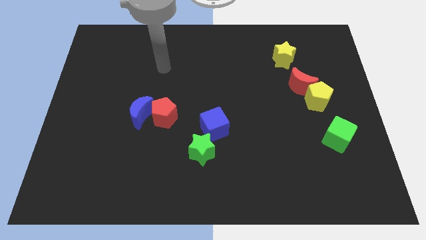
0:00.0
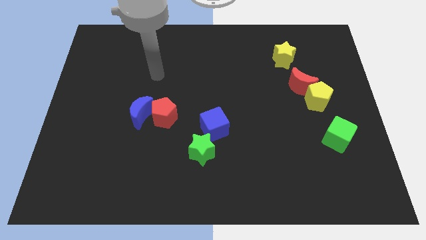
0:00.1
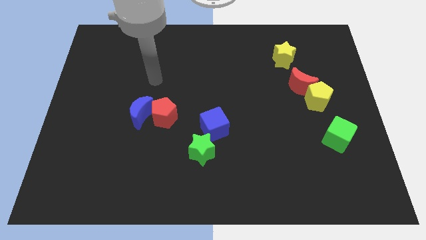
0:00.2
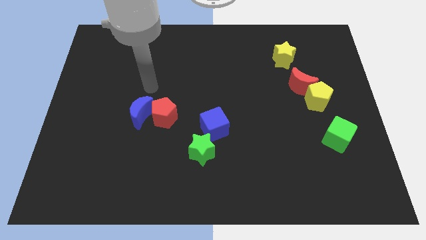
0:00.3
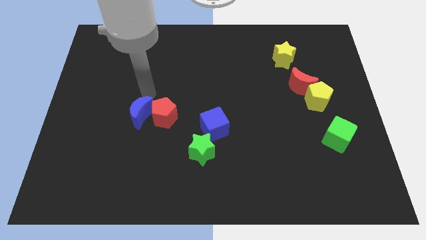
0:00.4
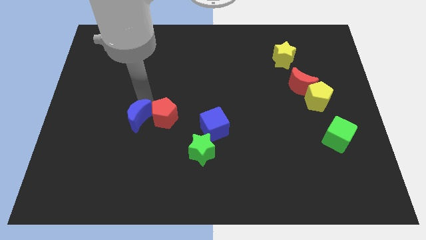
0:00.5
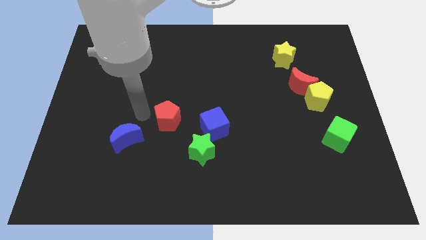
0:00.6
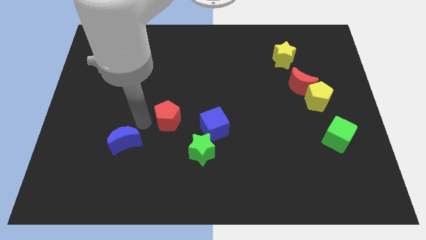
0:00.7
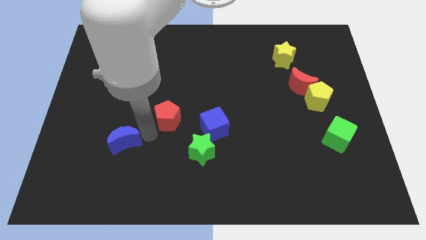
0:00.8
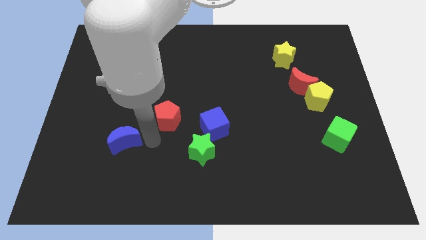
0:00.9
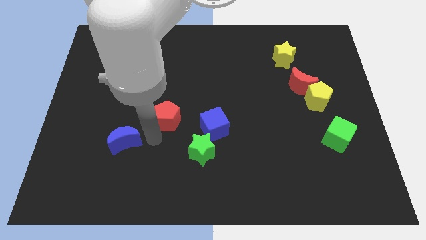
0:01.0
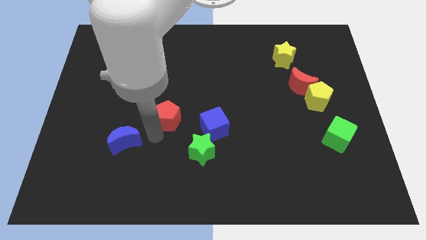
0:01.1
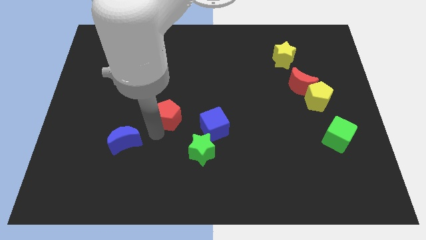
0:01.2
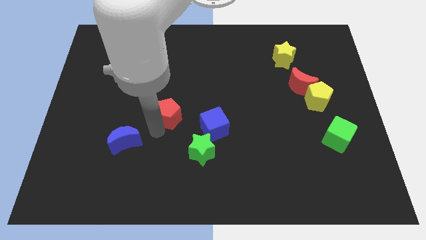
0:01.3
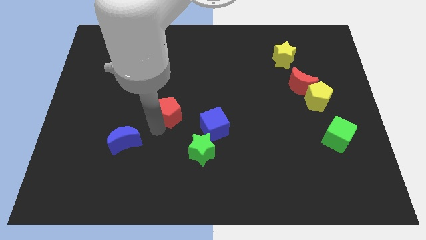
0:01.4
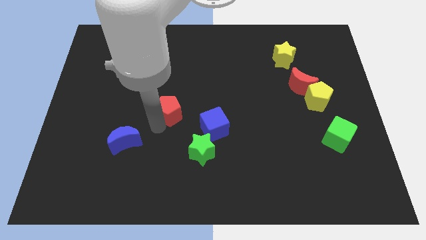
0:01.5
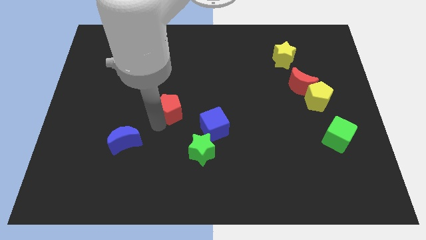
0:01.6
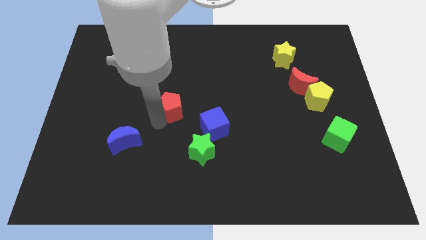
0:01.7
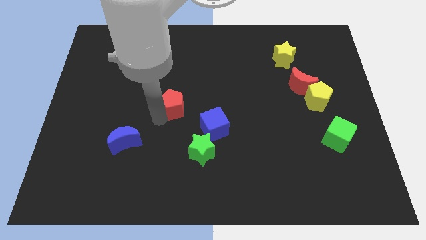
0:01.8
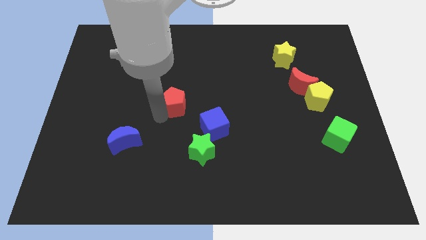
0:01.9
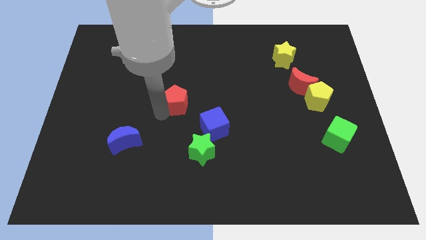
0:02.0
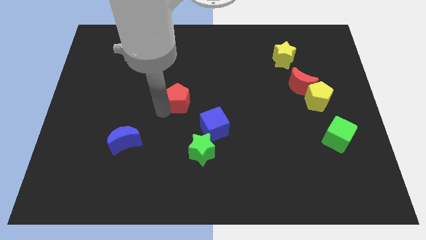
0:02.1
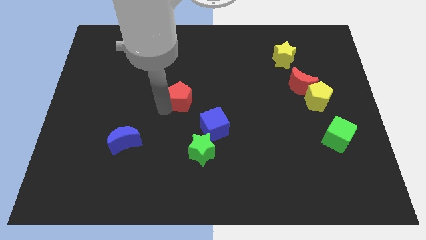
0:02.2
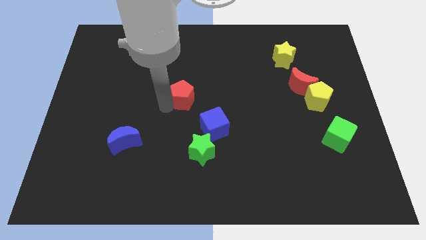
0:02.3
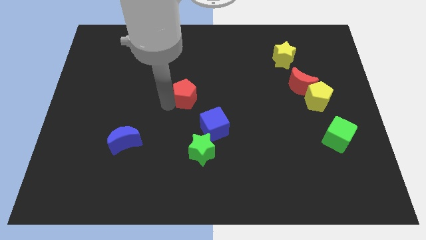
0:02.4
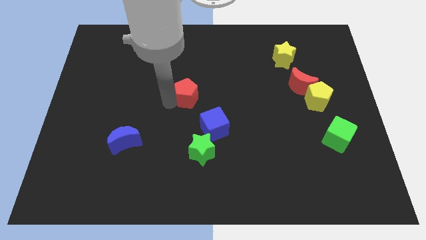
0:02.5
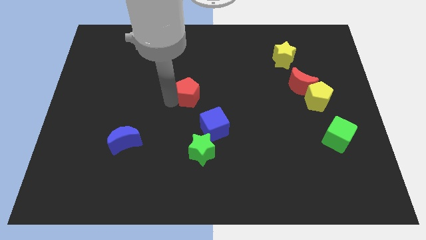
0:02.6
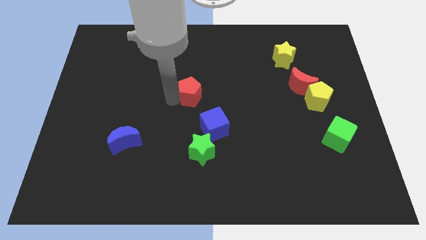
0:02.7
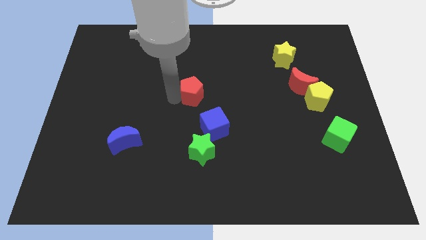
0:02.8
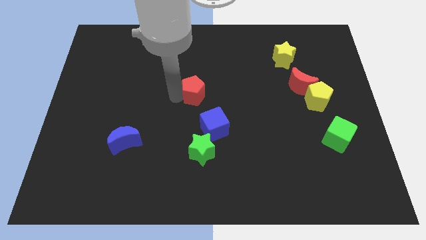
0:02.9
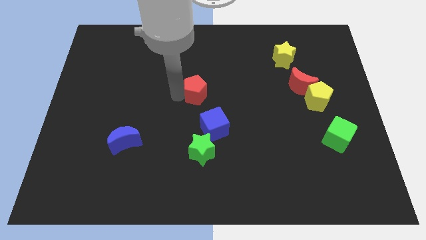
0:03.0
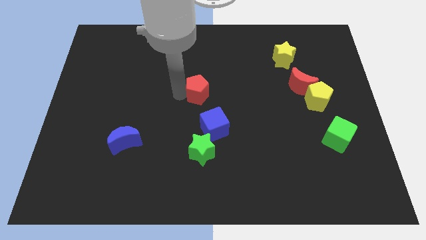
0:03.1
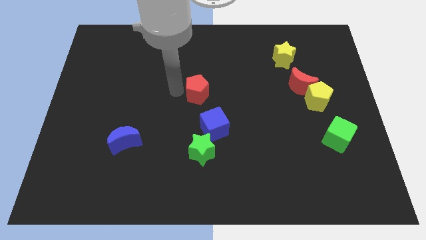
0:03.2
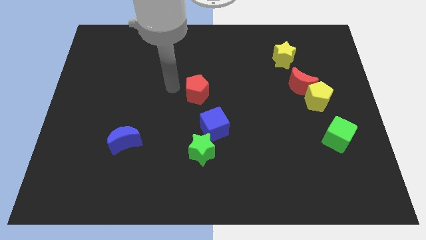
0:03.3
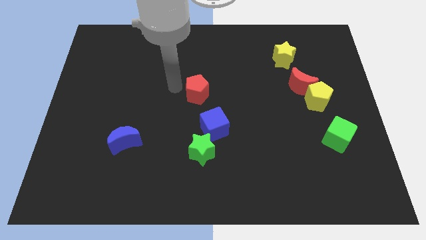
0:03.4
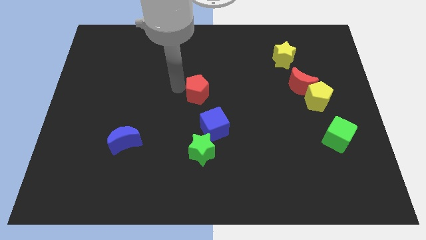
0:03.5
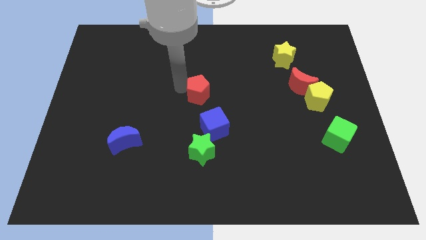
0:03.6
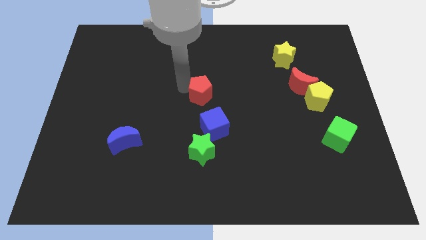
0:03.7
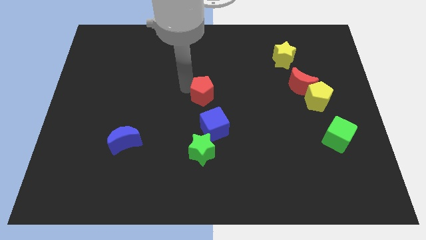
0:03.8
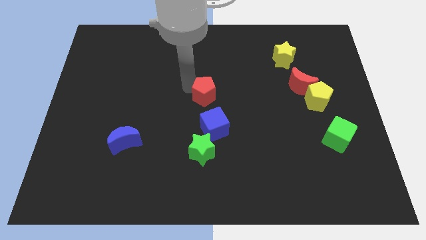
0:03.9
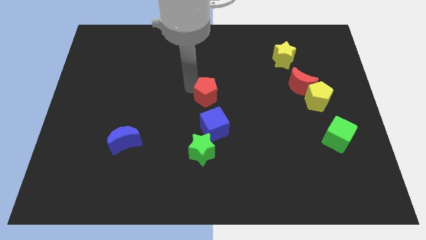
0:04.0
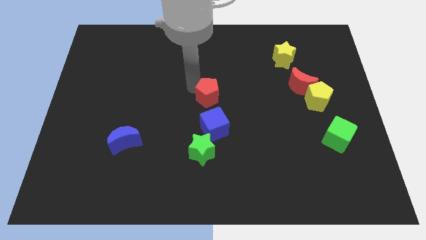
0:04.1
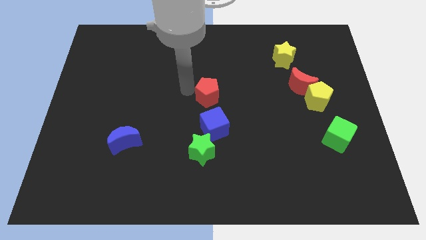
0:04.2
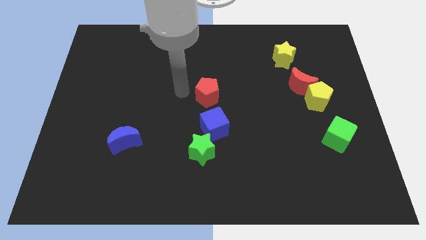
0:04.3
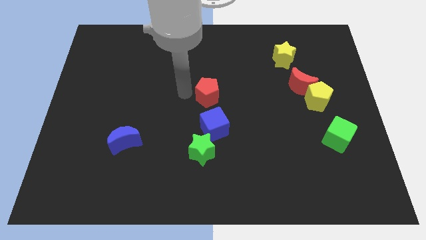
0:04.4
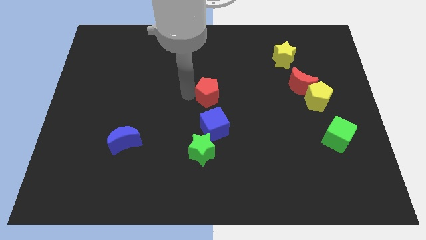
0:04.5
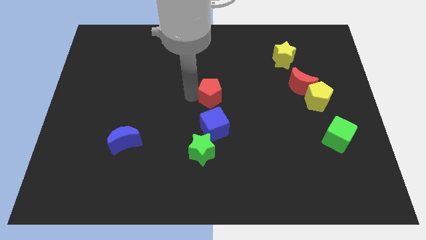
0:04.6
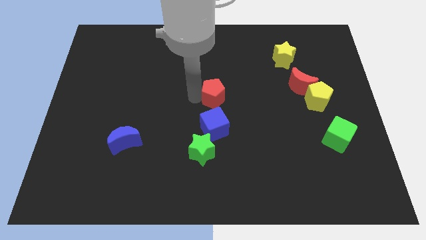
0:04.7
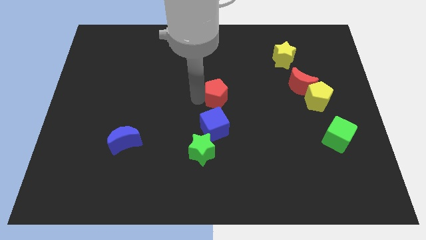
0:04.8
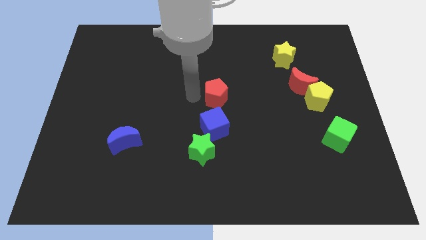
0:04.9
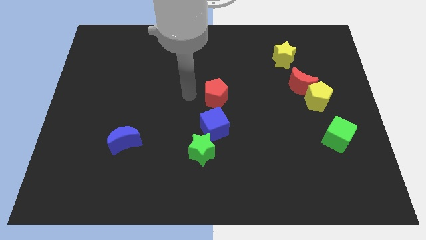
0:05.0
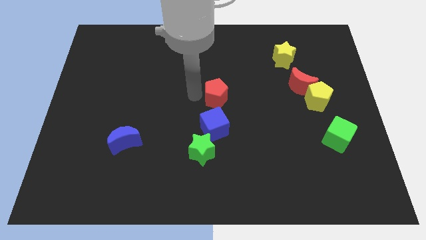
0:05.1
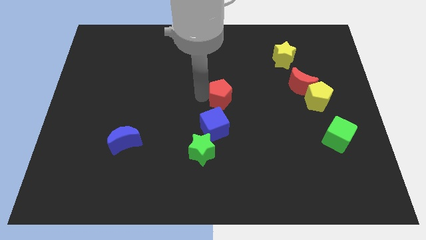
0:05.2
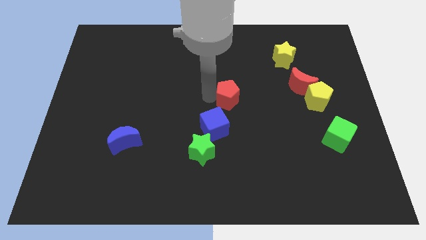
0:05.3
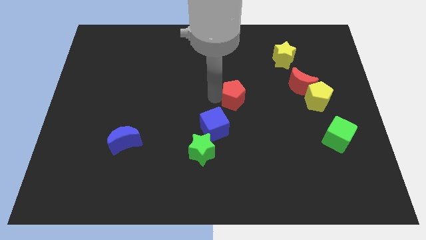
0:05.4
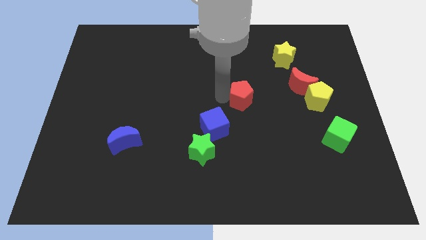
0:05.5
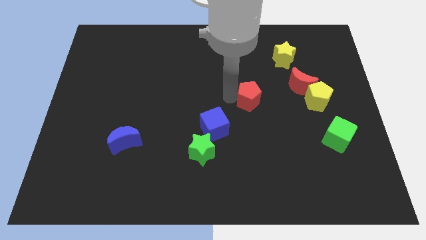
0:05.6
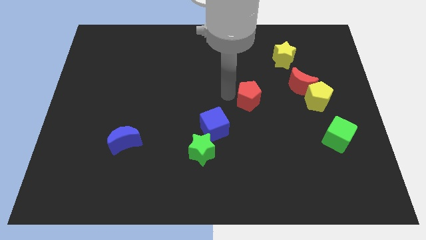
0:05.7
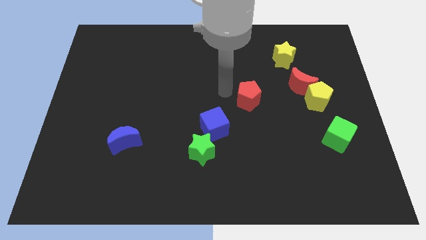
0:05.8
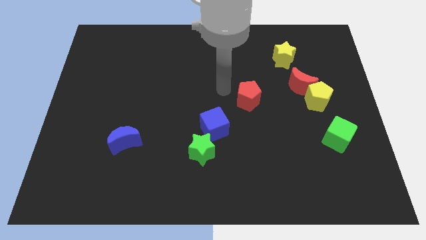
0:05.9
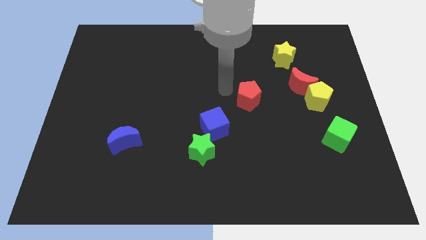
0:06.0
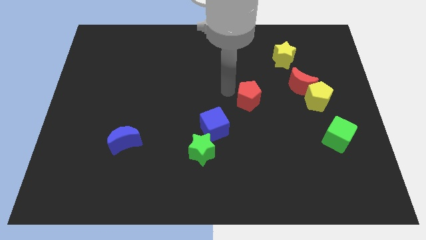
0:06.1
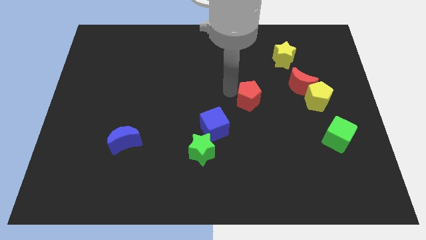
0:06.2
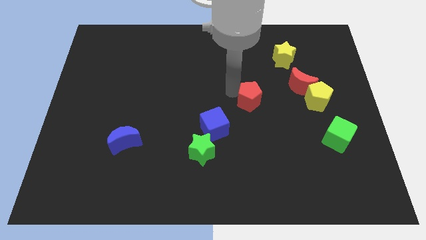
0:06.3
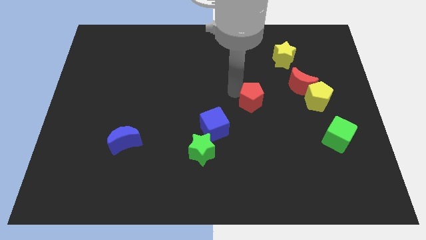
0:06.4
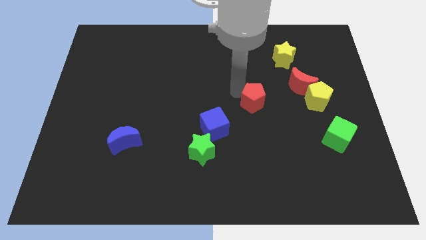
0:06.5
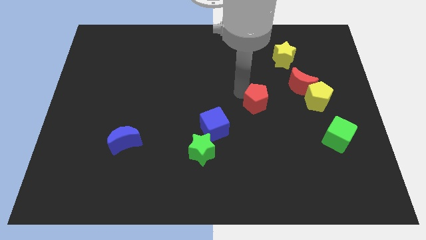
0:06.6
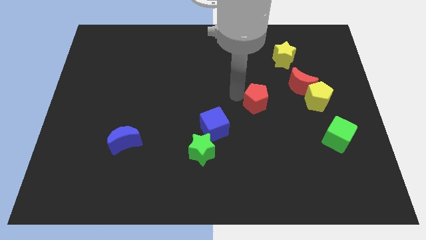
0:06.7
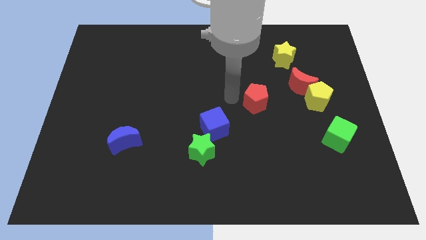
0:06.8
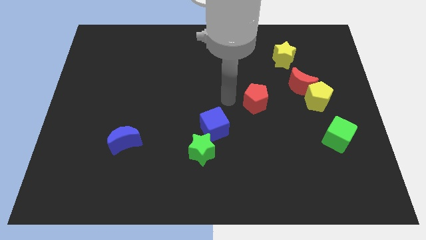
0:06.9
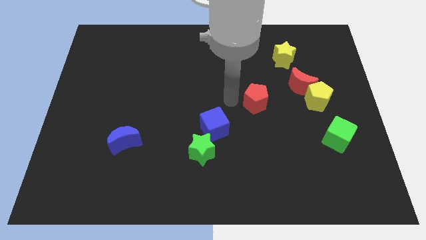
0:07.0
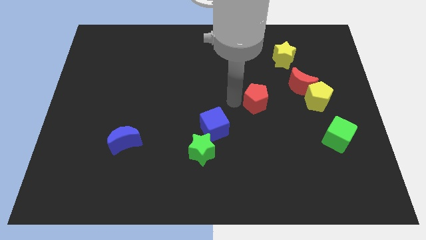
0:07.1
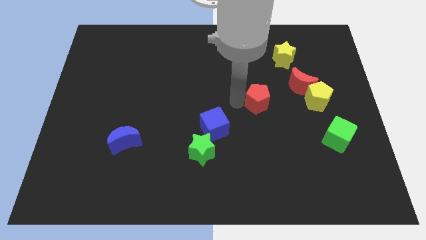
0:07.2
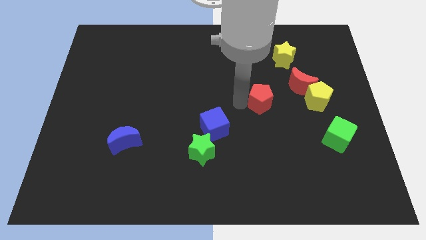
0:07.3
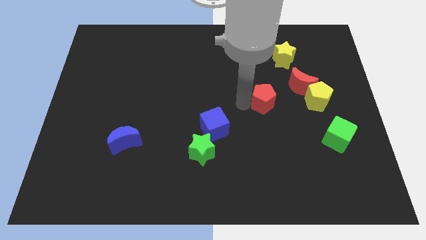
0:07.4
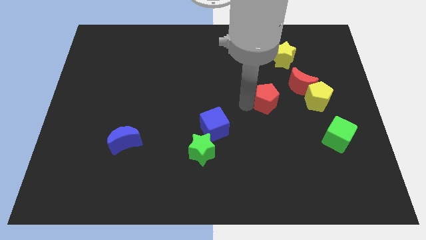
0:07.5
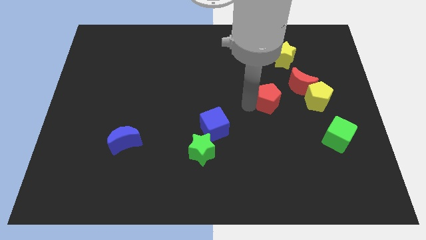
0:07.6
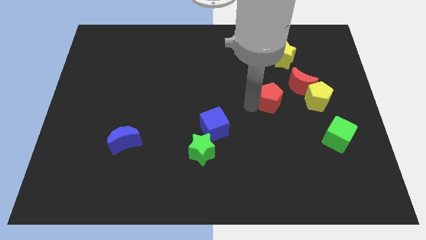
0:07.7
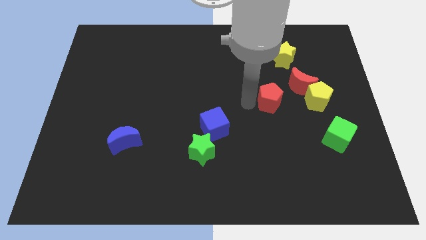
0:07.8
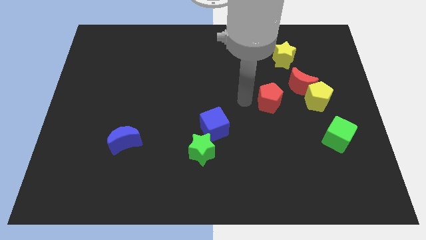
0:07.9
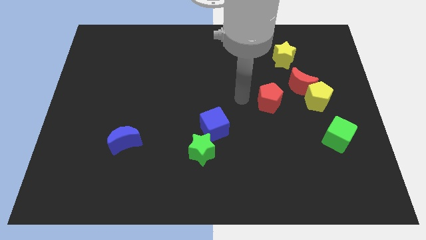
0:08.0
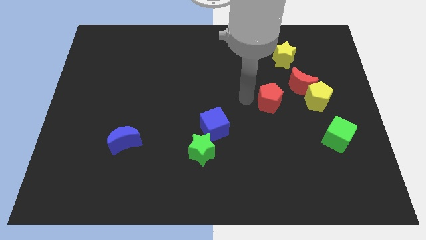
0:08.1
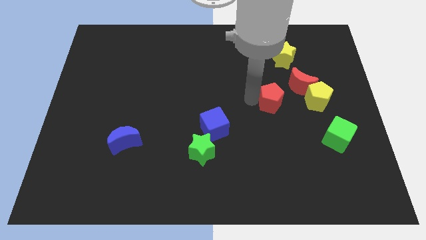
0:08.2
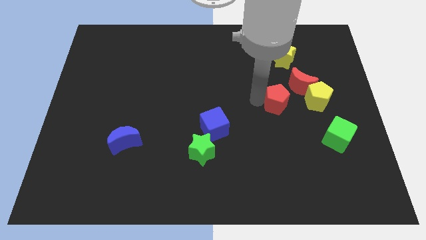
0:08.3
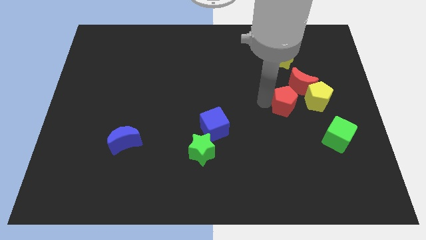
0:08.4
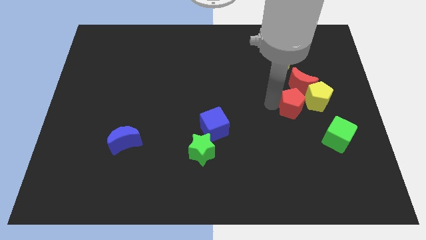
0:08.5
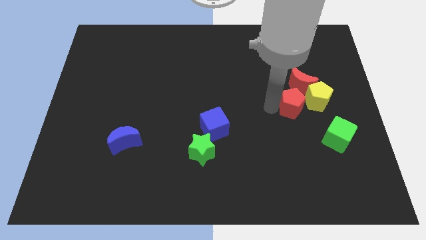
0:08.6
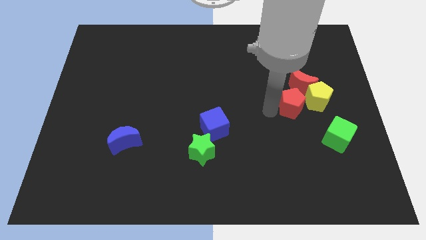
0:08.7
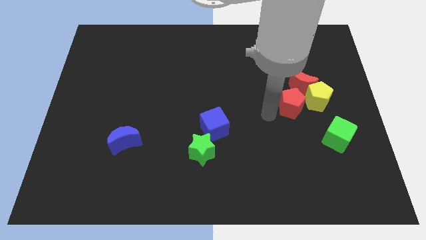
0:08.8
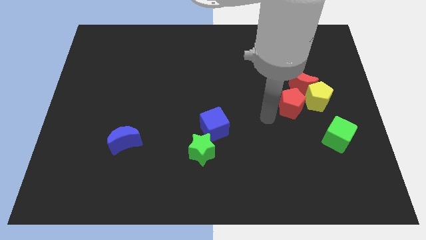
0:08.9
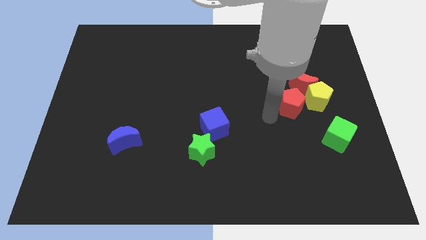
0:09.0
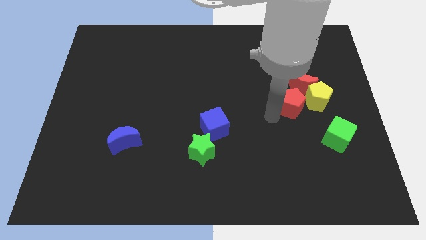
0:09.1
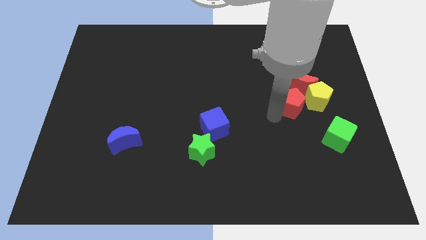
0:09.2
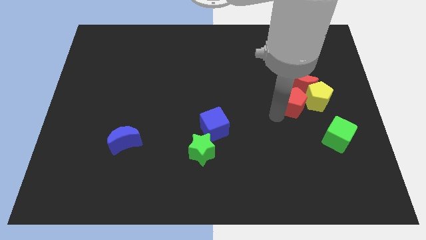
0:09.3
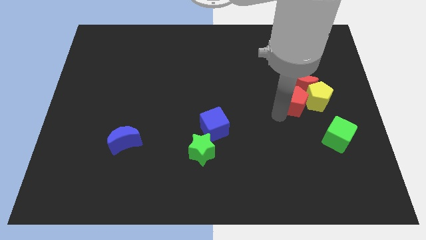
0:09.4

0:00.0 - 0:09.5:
move the red pentagon close to the yellow pentagon
